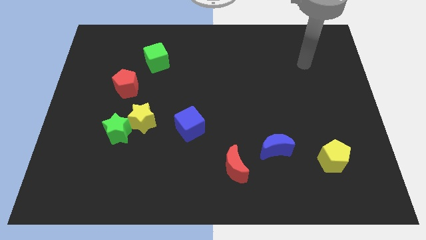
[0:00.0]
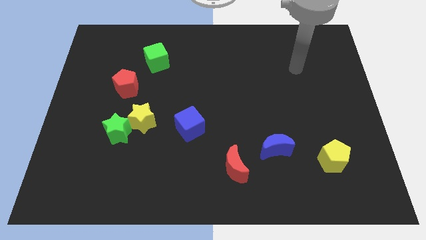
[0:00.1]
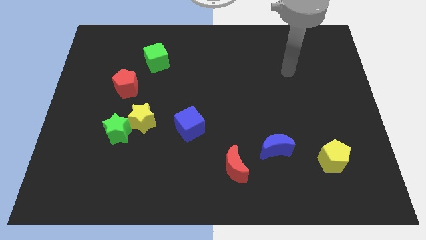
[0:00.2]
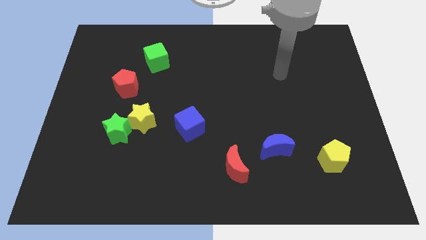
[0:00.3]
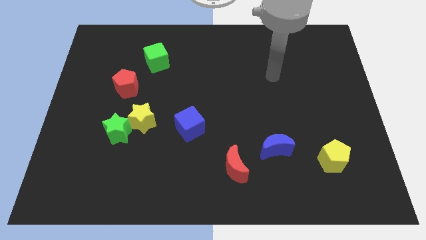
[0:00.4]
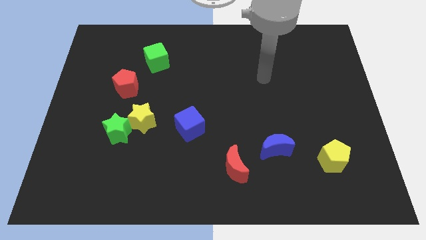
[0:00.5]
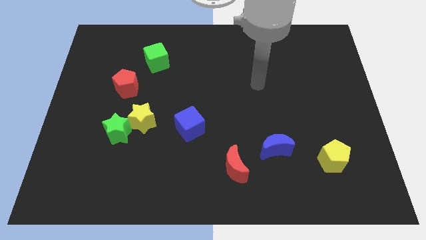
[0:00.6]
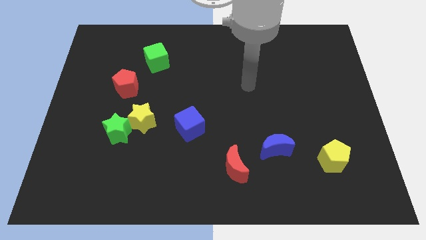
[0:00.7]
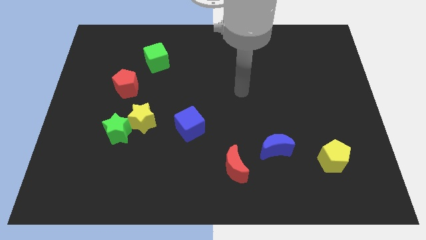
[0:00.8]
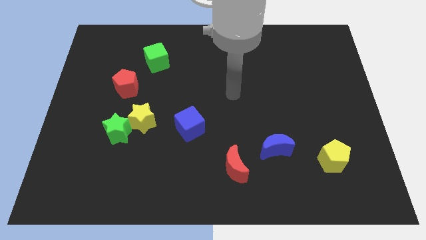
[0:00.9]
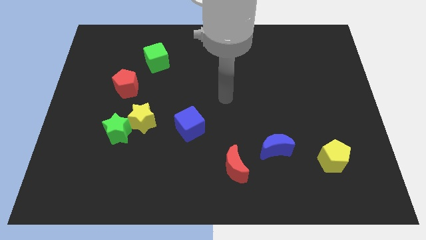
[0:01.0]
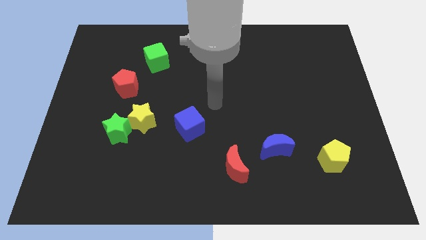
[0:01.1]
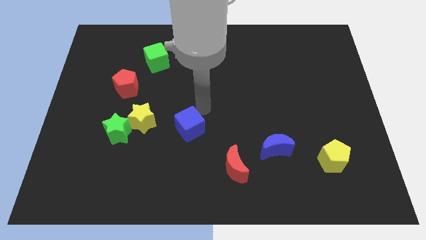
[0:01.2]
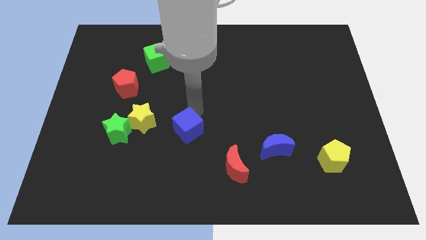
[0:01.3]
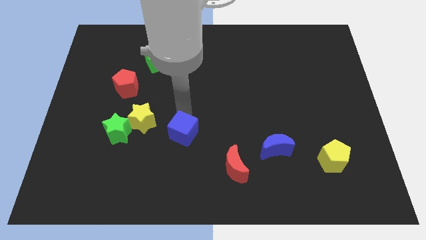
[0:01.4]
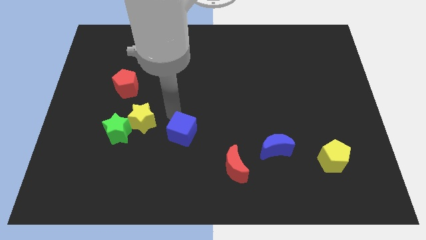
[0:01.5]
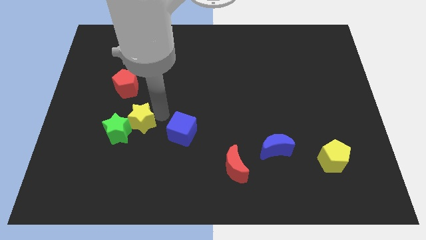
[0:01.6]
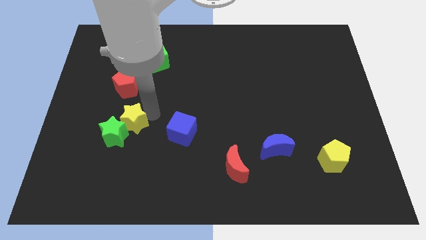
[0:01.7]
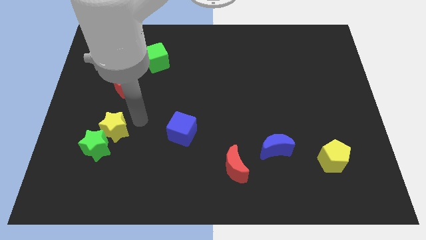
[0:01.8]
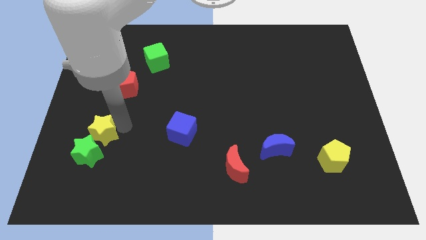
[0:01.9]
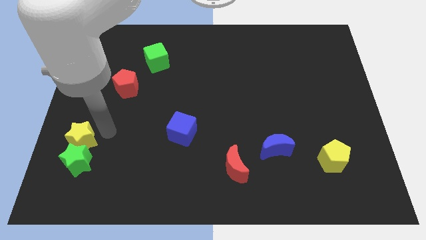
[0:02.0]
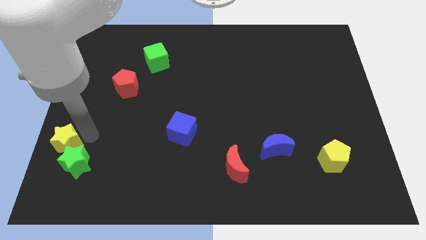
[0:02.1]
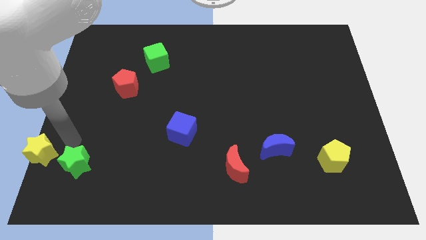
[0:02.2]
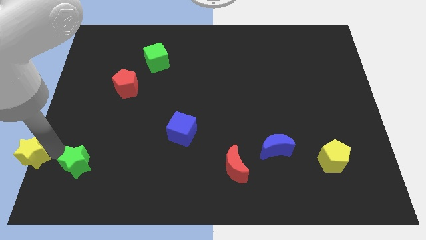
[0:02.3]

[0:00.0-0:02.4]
move the green star away from the yellow star

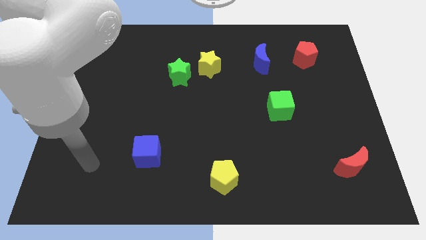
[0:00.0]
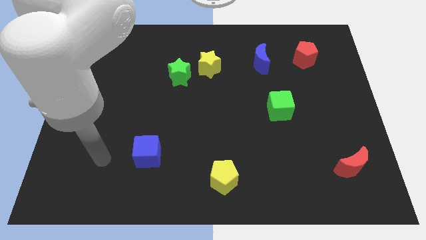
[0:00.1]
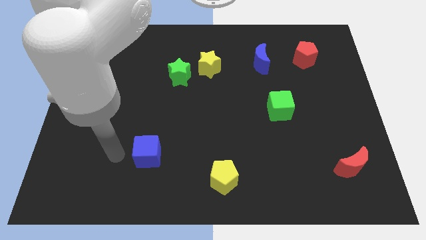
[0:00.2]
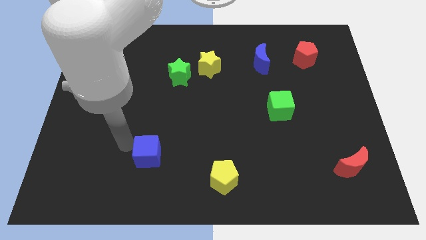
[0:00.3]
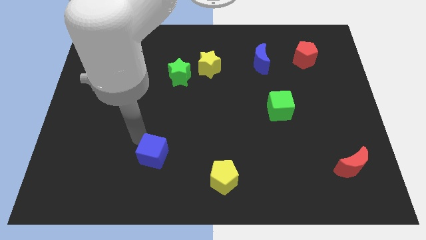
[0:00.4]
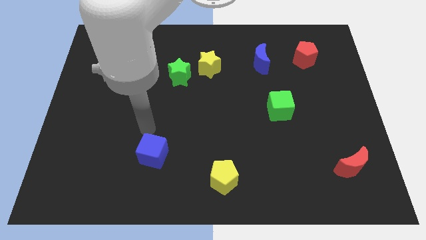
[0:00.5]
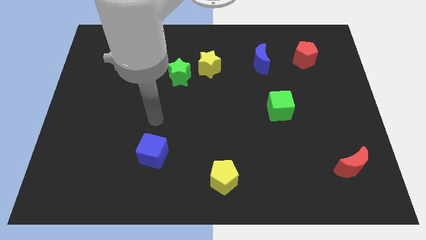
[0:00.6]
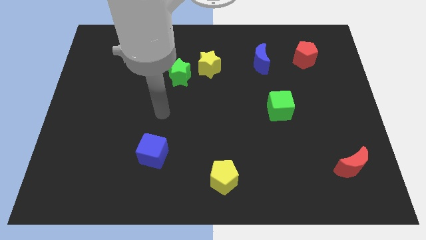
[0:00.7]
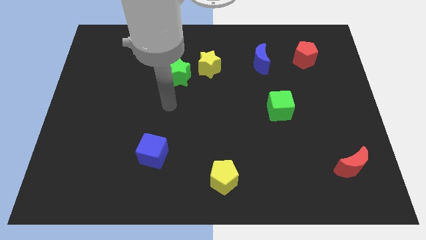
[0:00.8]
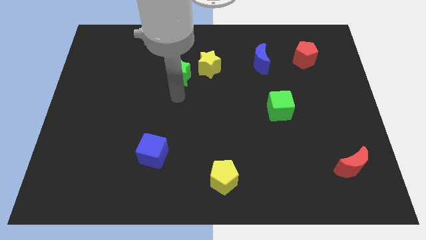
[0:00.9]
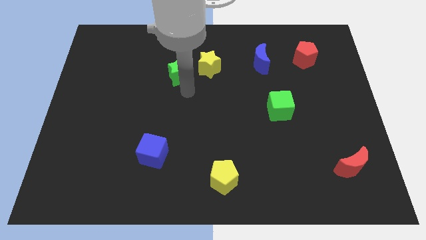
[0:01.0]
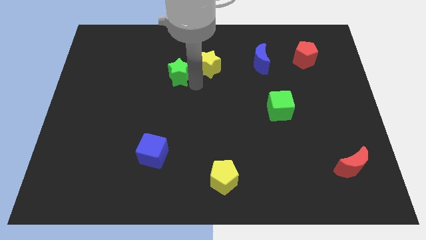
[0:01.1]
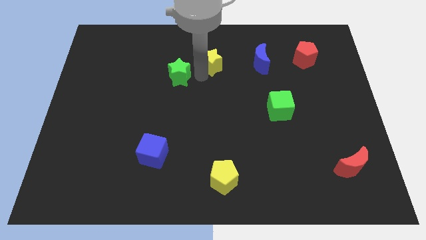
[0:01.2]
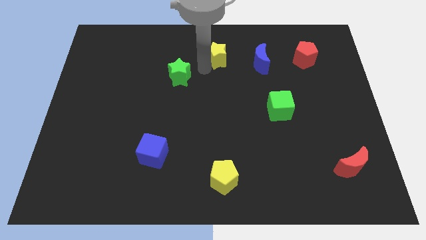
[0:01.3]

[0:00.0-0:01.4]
pull the green star apart from the yellow star

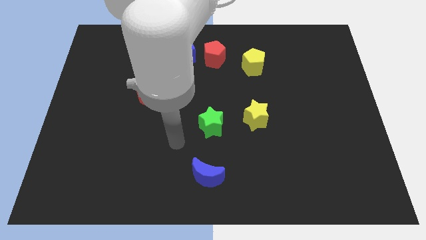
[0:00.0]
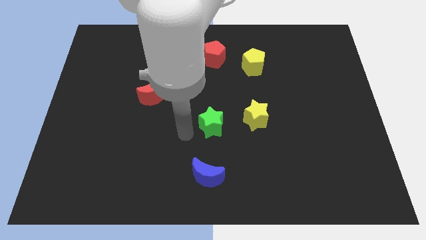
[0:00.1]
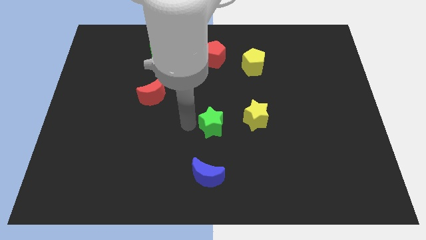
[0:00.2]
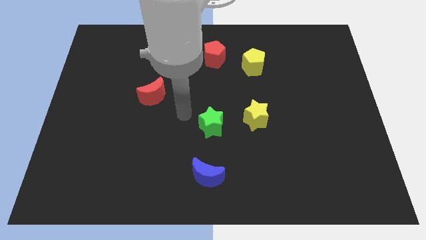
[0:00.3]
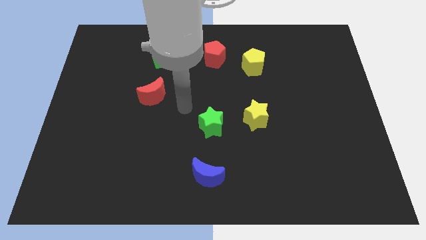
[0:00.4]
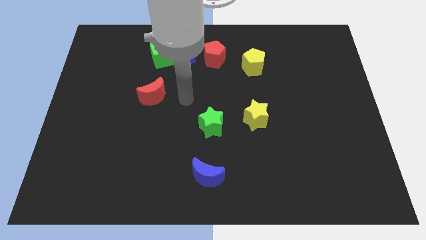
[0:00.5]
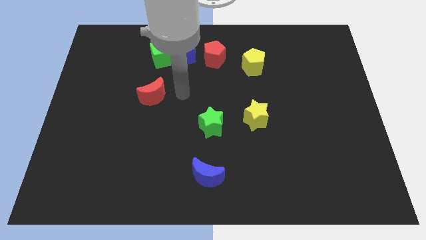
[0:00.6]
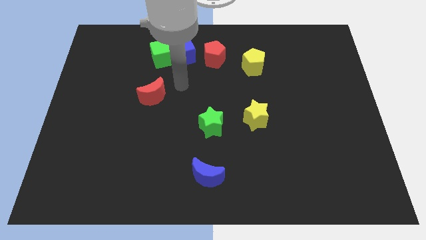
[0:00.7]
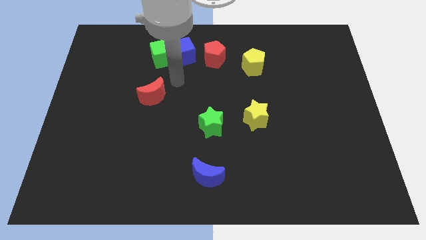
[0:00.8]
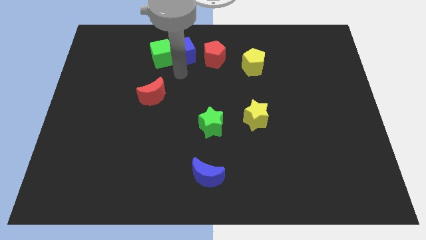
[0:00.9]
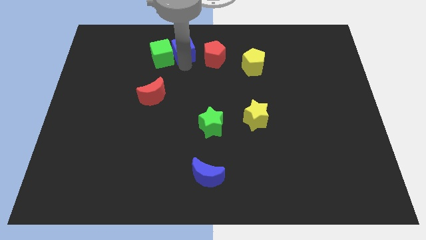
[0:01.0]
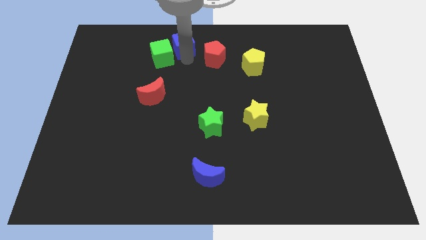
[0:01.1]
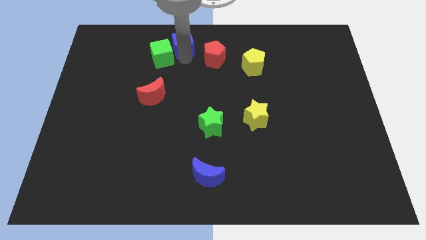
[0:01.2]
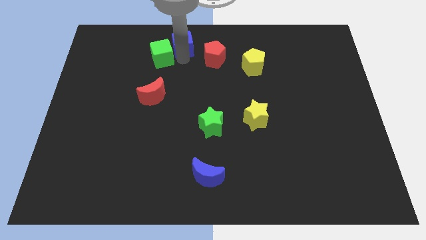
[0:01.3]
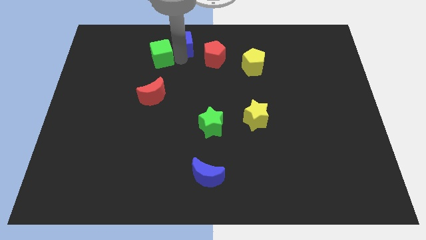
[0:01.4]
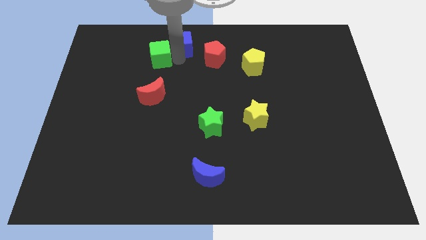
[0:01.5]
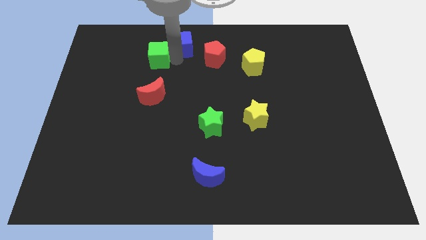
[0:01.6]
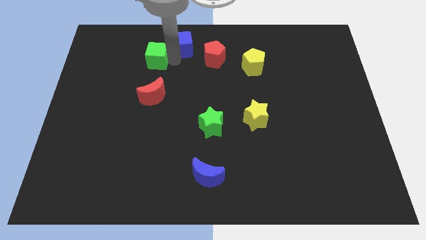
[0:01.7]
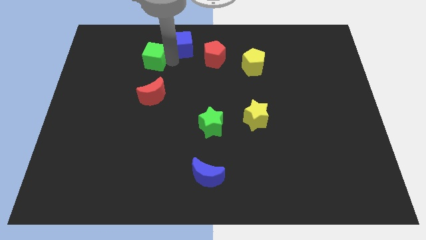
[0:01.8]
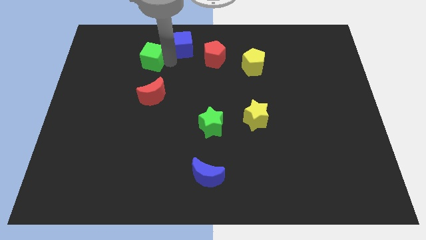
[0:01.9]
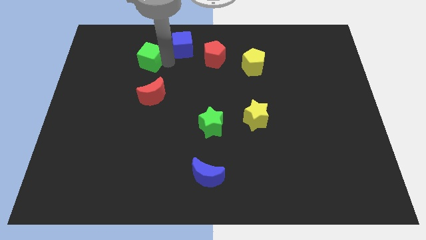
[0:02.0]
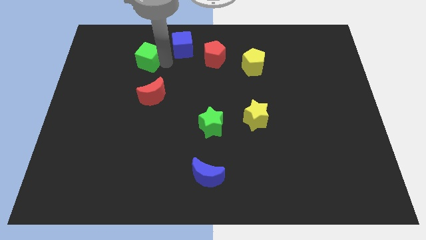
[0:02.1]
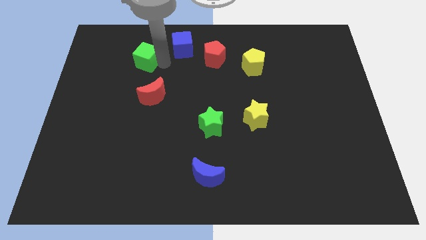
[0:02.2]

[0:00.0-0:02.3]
separate the green cube from the blue cube

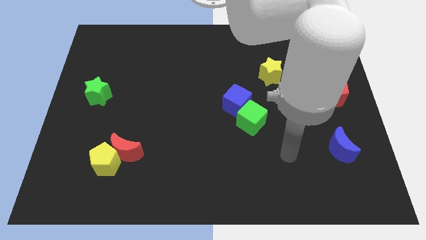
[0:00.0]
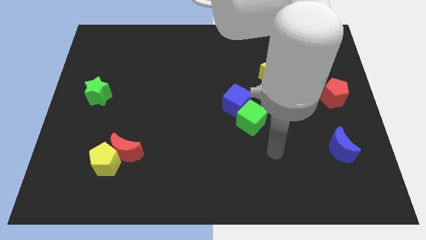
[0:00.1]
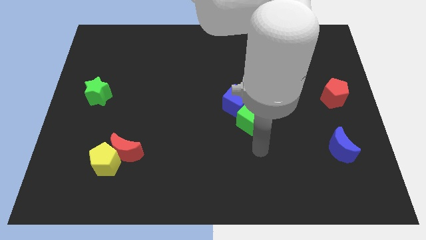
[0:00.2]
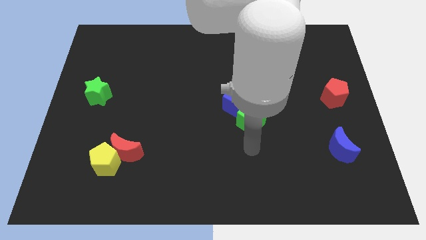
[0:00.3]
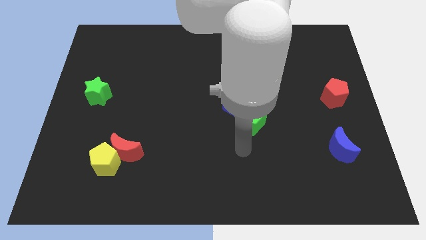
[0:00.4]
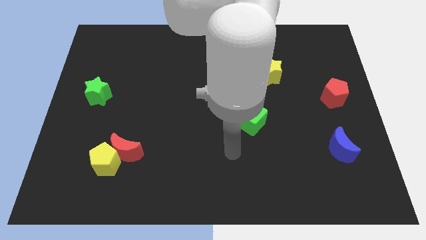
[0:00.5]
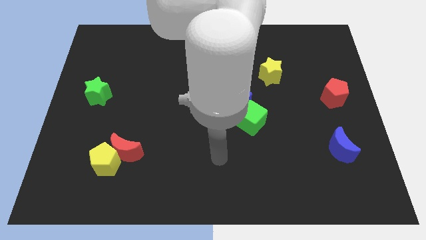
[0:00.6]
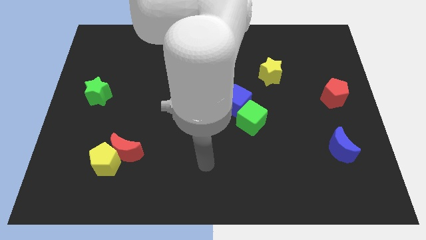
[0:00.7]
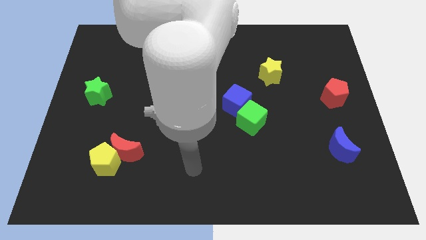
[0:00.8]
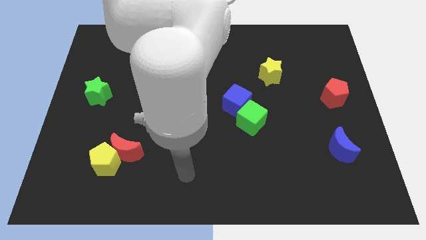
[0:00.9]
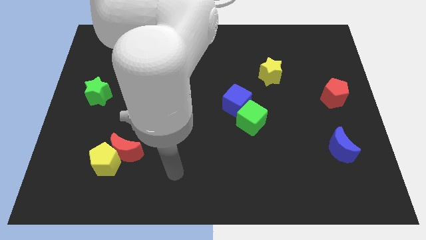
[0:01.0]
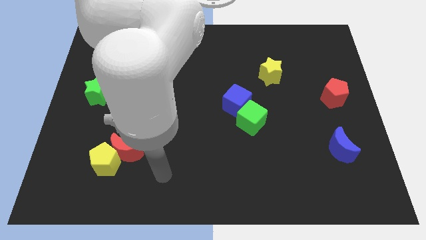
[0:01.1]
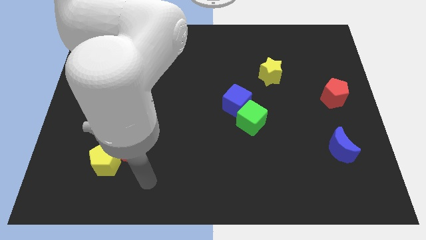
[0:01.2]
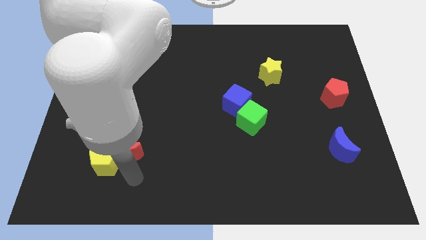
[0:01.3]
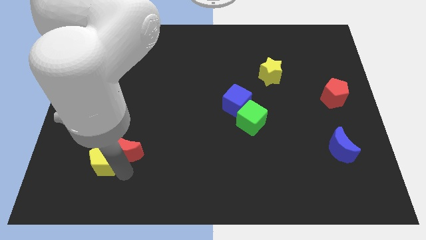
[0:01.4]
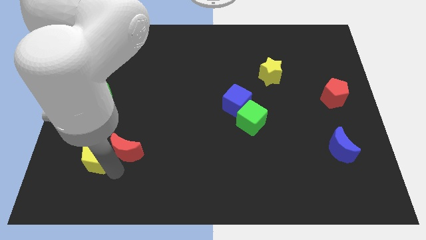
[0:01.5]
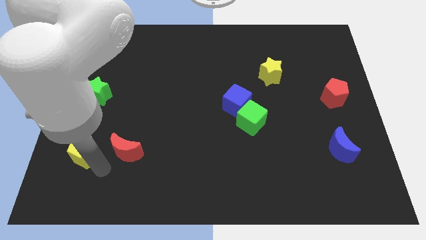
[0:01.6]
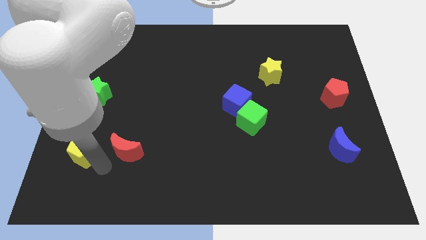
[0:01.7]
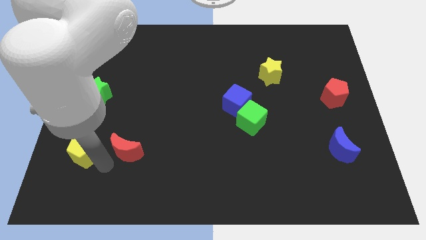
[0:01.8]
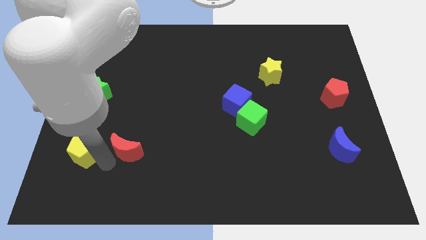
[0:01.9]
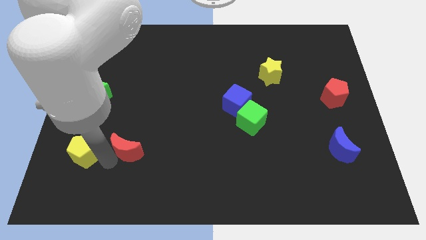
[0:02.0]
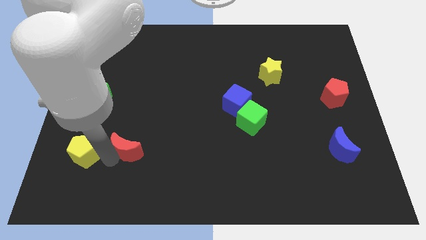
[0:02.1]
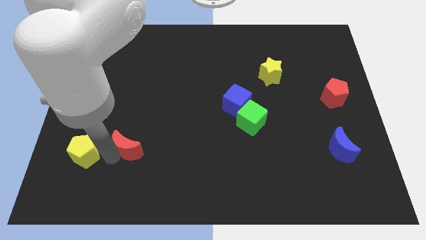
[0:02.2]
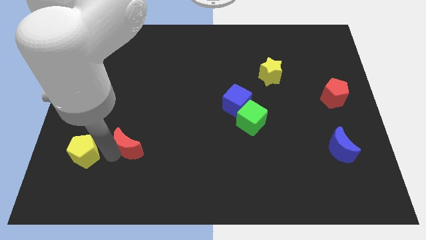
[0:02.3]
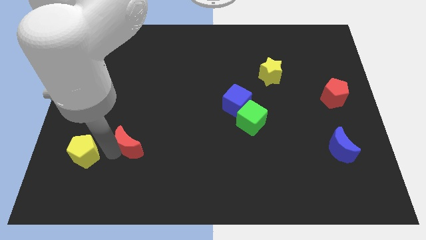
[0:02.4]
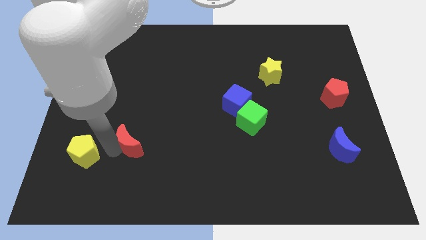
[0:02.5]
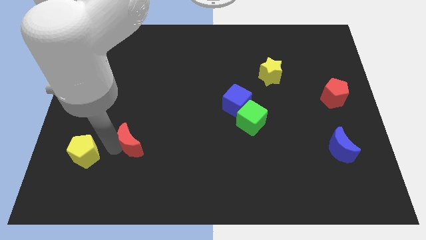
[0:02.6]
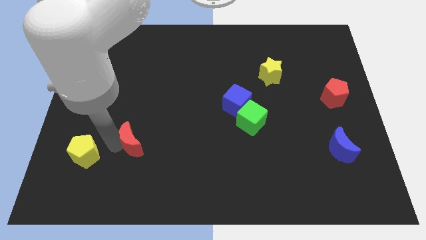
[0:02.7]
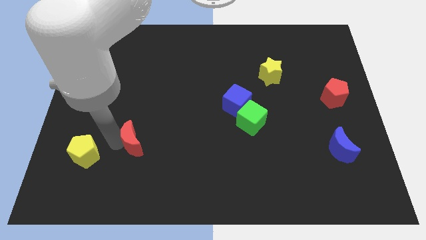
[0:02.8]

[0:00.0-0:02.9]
move the red moon away from the yellow pentagon

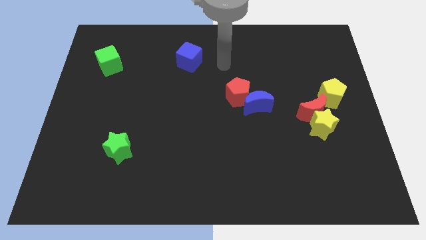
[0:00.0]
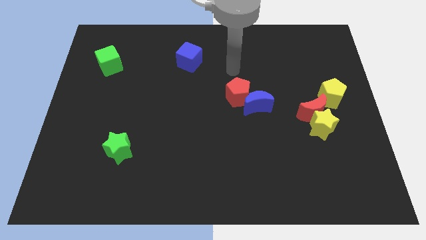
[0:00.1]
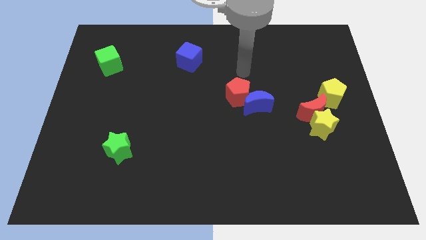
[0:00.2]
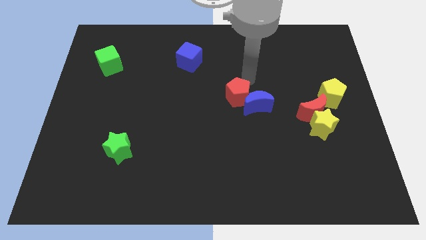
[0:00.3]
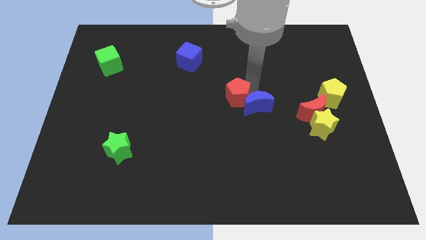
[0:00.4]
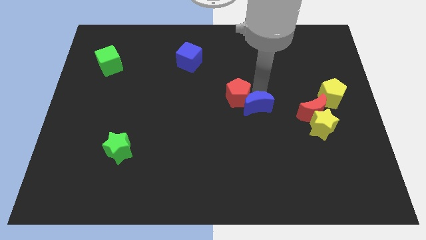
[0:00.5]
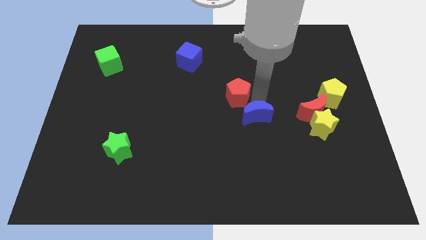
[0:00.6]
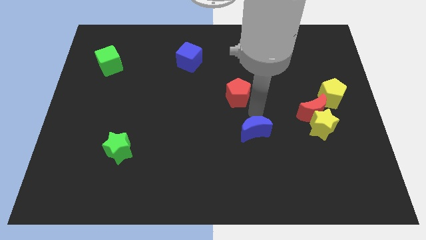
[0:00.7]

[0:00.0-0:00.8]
move the red pentagon away from the blue moon
